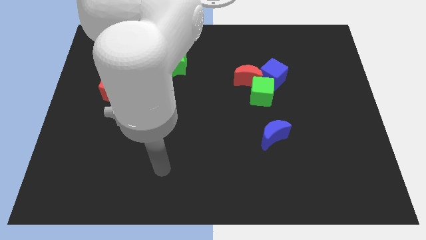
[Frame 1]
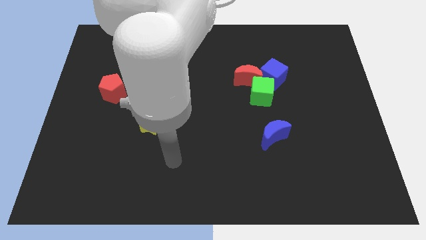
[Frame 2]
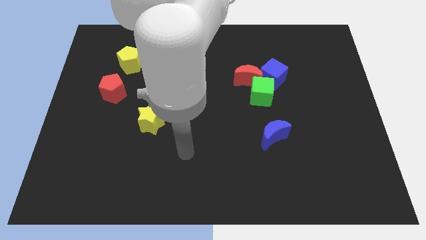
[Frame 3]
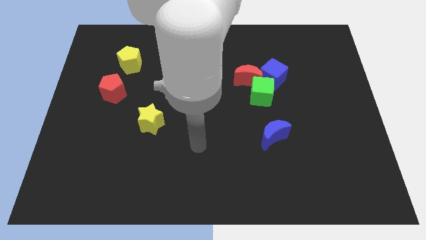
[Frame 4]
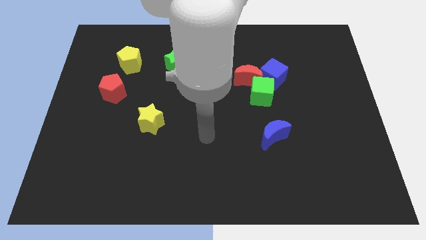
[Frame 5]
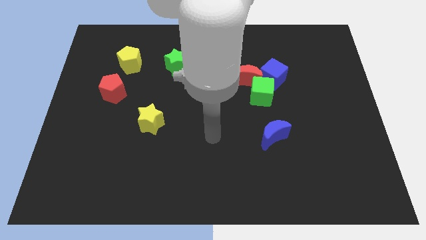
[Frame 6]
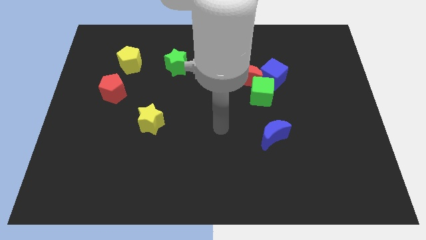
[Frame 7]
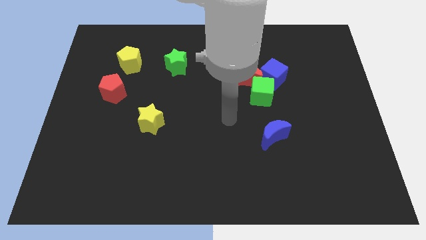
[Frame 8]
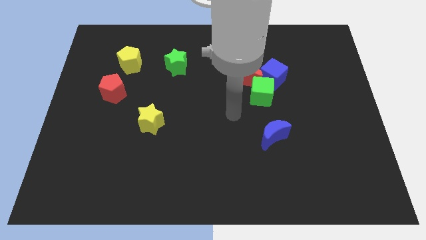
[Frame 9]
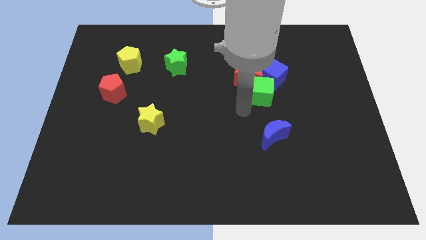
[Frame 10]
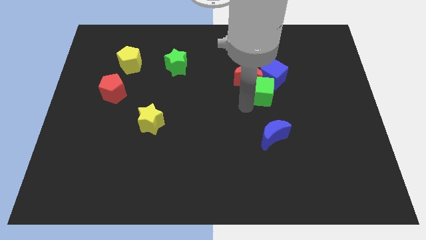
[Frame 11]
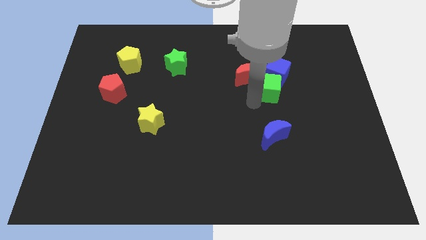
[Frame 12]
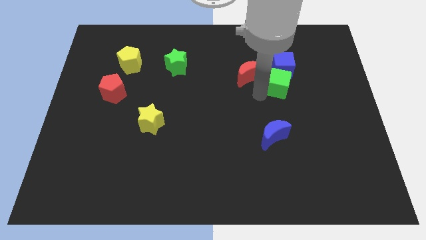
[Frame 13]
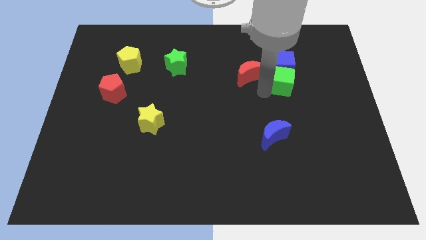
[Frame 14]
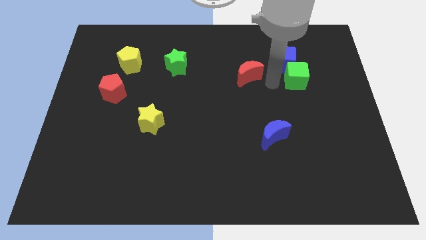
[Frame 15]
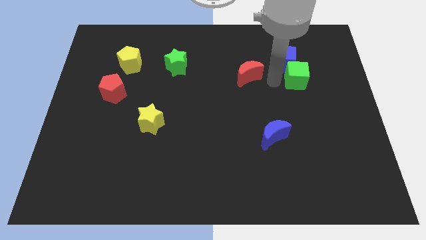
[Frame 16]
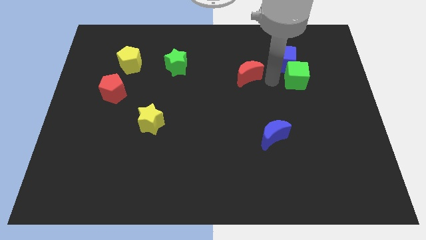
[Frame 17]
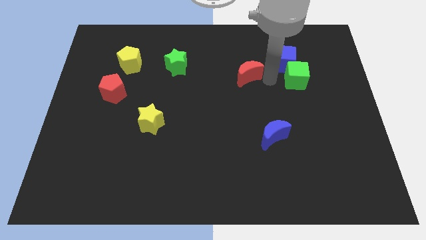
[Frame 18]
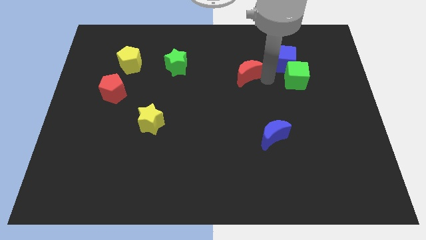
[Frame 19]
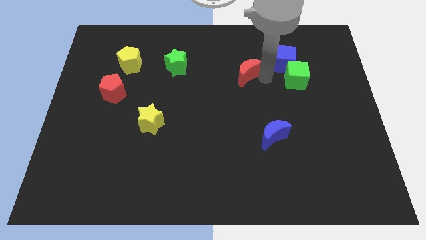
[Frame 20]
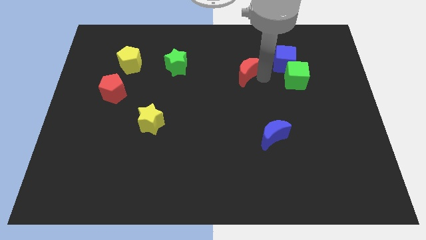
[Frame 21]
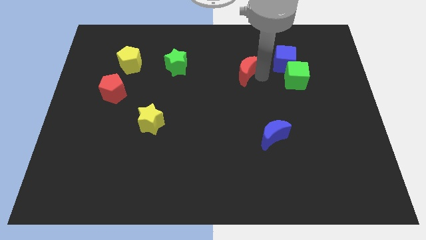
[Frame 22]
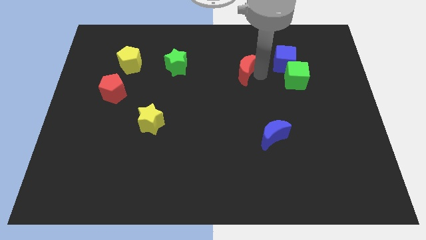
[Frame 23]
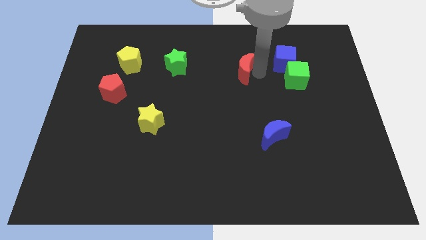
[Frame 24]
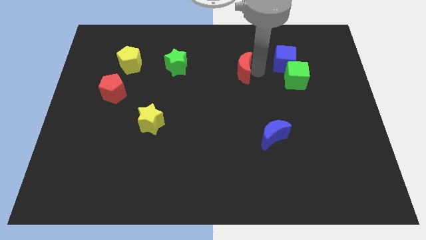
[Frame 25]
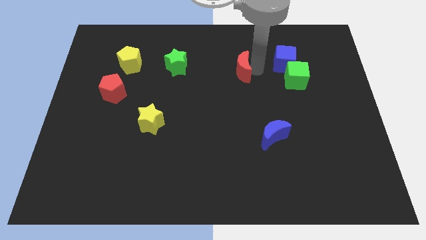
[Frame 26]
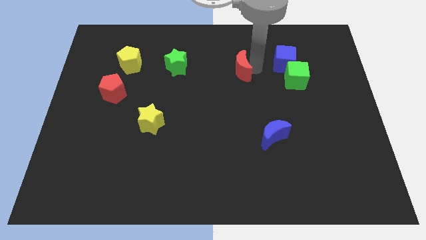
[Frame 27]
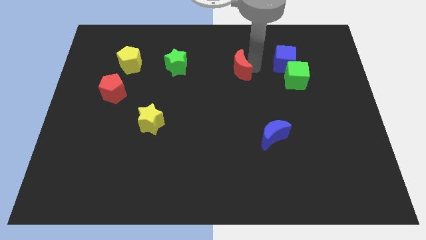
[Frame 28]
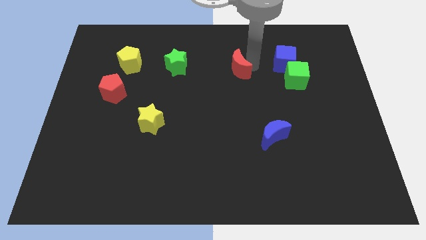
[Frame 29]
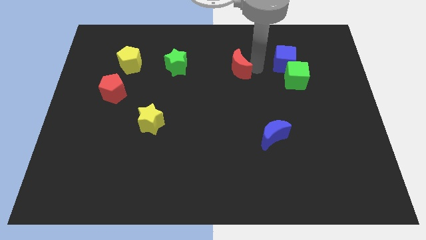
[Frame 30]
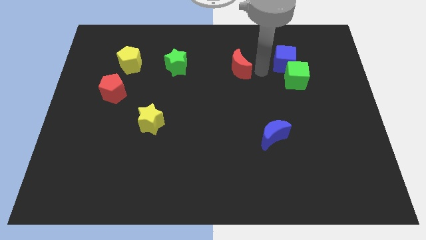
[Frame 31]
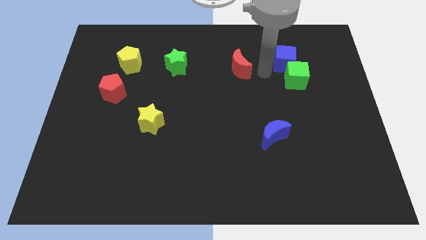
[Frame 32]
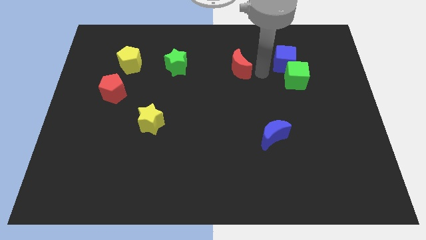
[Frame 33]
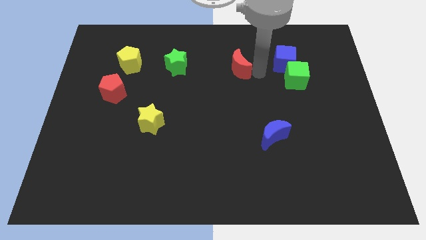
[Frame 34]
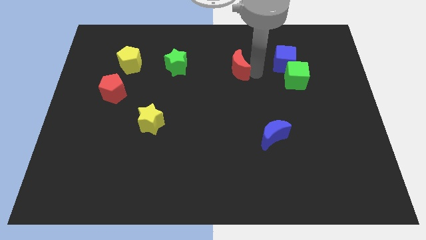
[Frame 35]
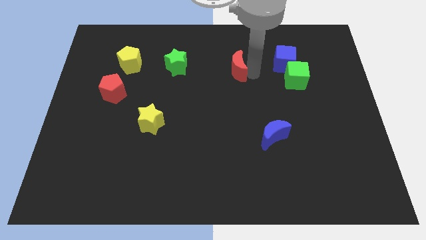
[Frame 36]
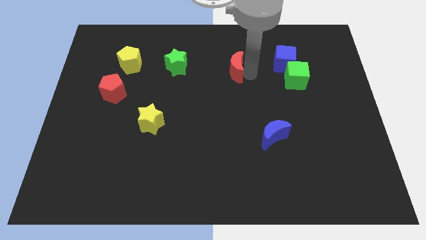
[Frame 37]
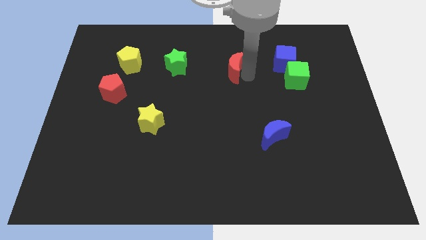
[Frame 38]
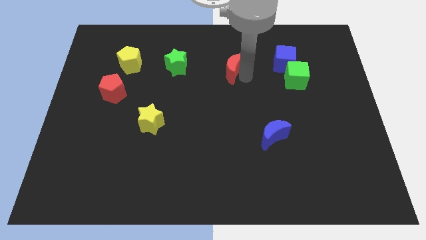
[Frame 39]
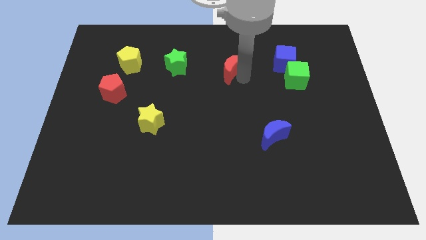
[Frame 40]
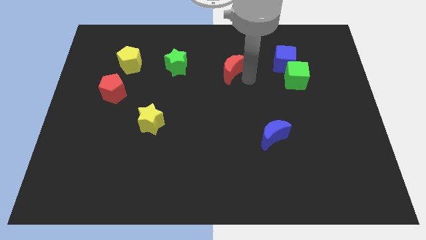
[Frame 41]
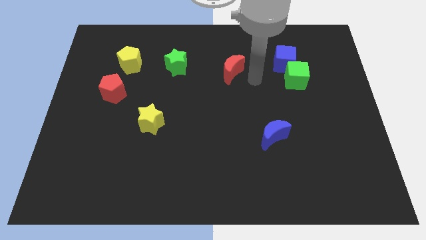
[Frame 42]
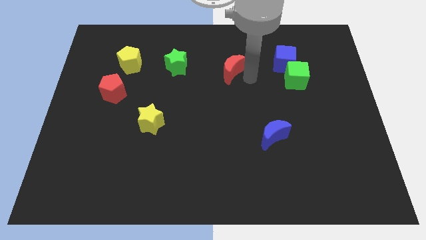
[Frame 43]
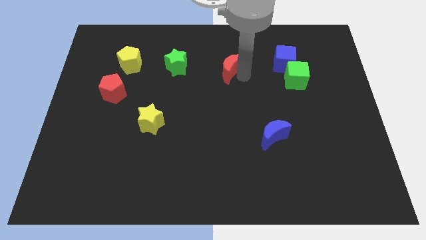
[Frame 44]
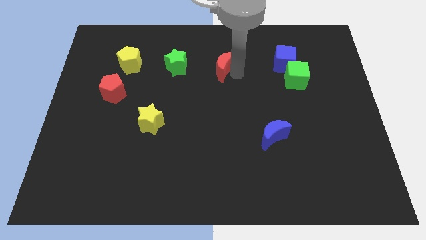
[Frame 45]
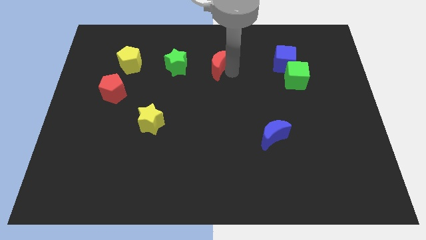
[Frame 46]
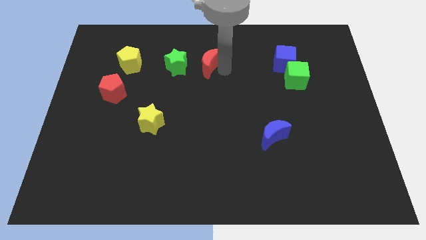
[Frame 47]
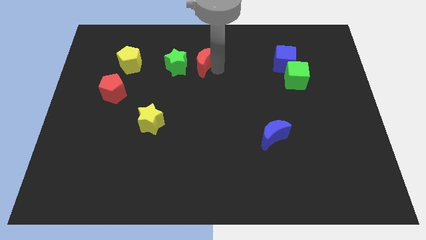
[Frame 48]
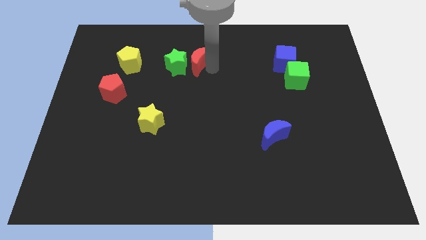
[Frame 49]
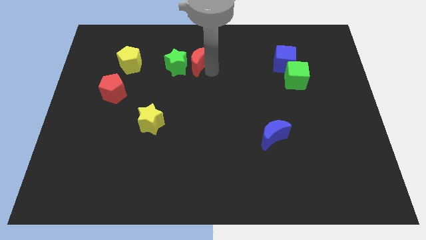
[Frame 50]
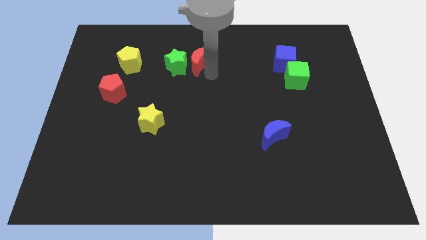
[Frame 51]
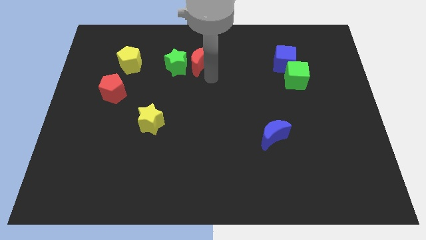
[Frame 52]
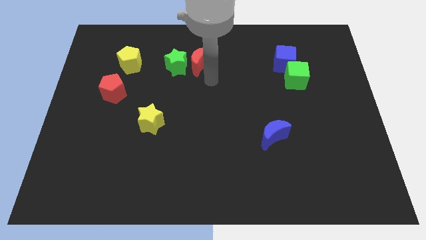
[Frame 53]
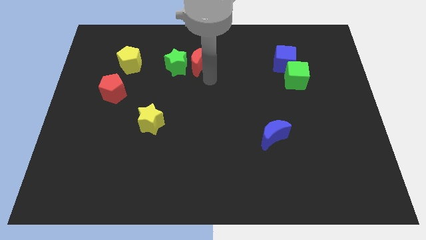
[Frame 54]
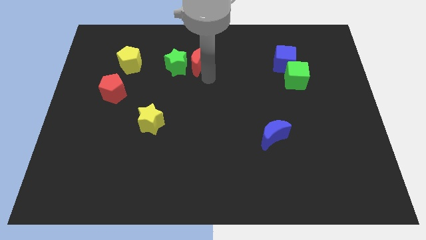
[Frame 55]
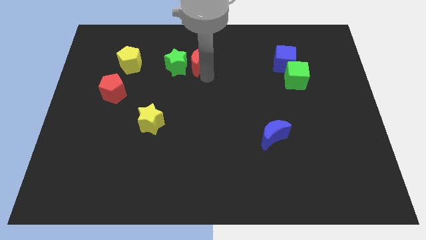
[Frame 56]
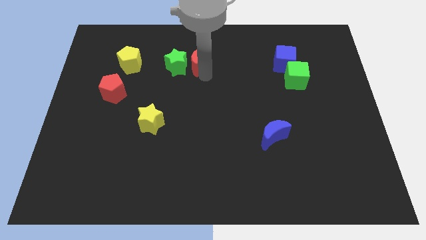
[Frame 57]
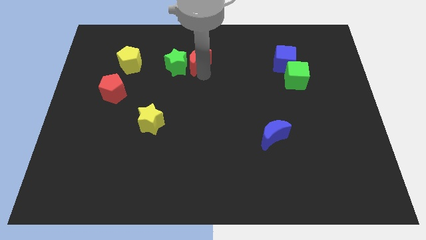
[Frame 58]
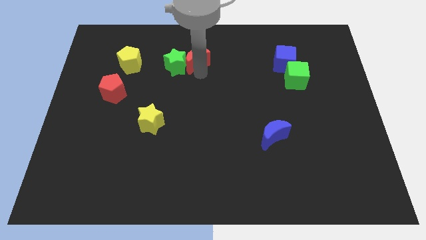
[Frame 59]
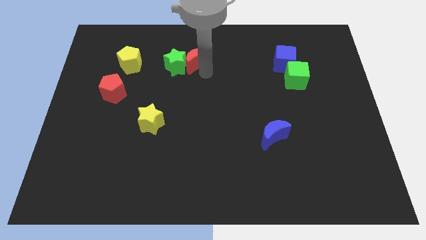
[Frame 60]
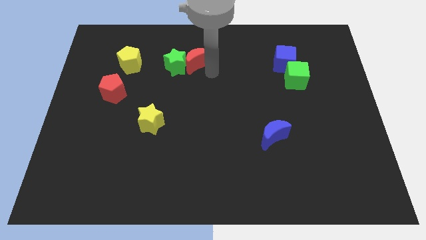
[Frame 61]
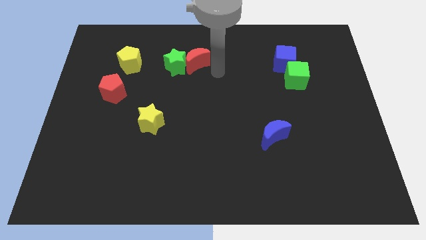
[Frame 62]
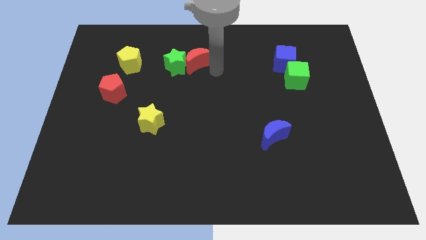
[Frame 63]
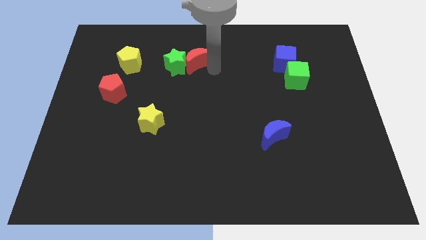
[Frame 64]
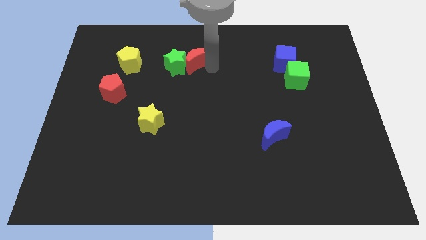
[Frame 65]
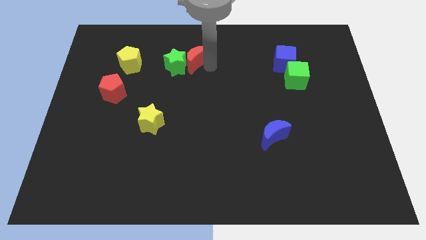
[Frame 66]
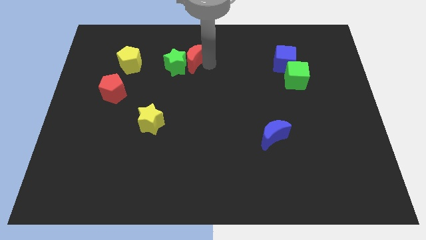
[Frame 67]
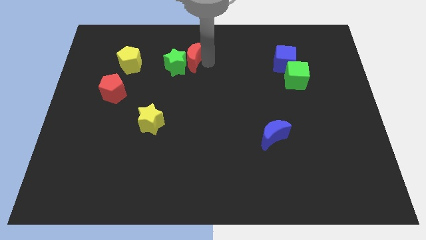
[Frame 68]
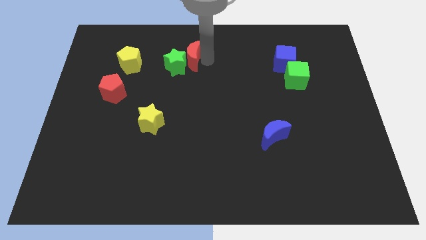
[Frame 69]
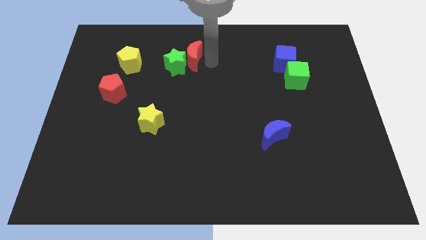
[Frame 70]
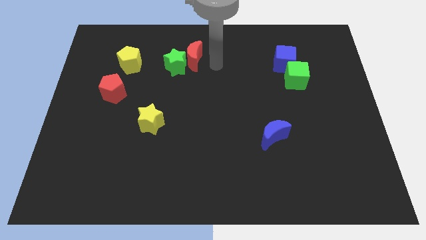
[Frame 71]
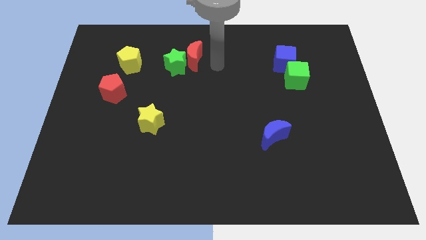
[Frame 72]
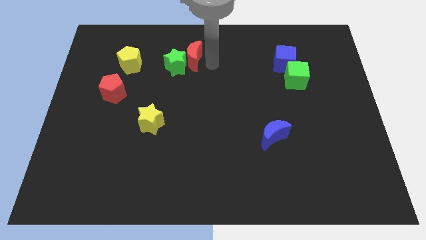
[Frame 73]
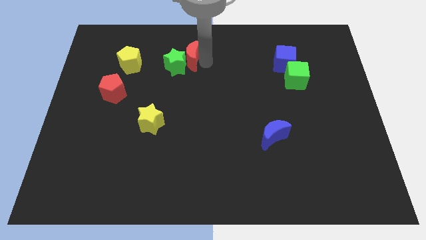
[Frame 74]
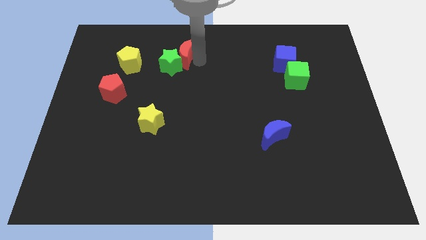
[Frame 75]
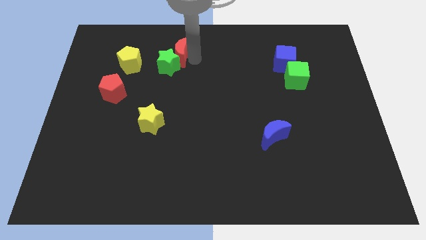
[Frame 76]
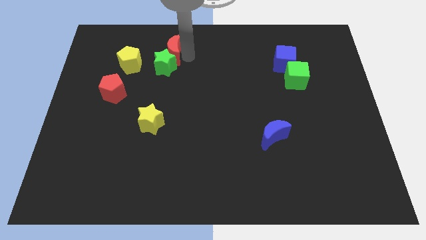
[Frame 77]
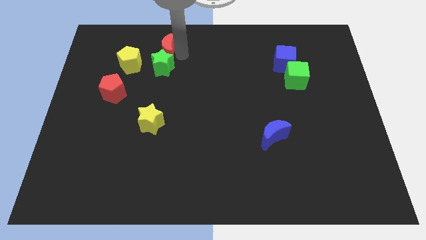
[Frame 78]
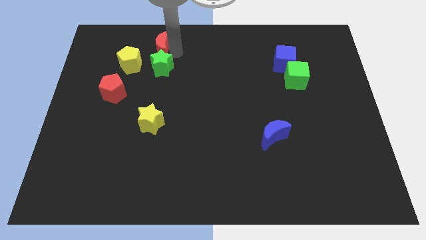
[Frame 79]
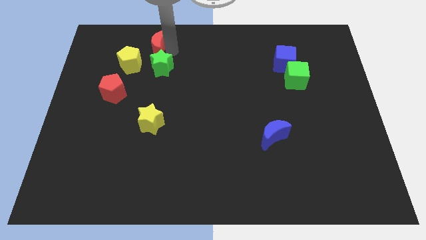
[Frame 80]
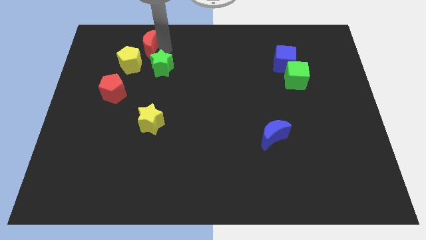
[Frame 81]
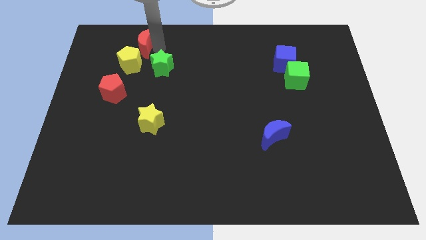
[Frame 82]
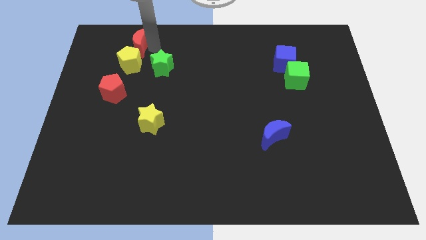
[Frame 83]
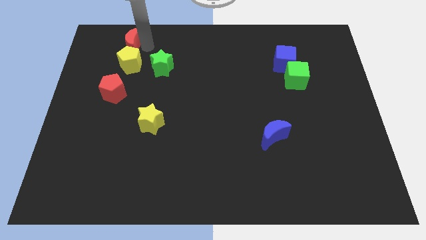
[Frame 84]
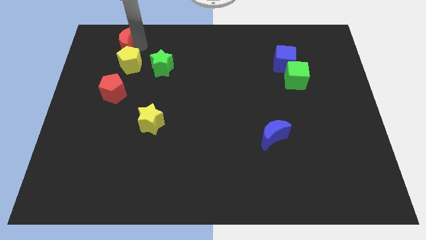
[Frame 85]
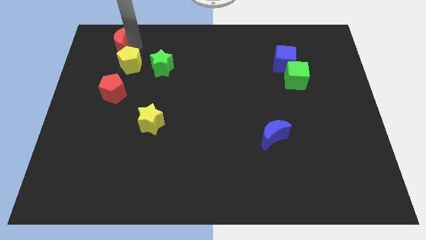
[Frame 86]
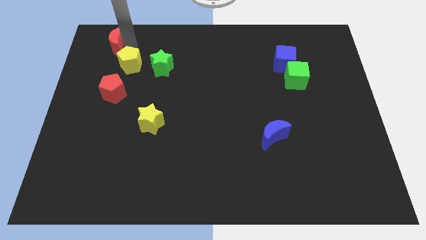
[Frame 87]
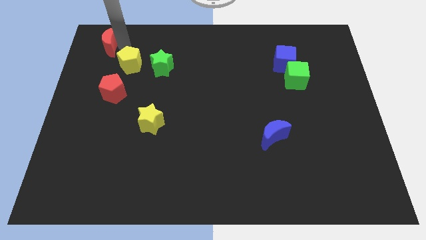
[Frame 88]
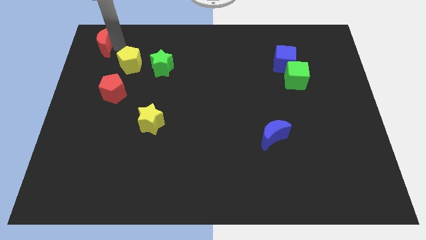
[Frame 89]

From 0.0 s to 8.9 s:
push the red moon to the upper left corner
